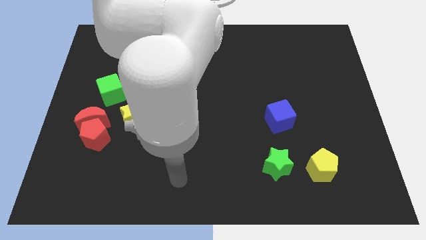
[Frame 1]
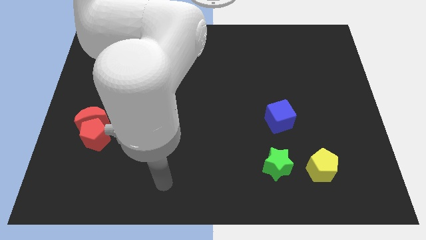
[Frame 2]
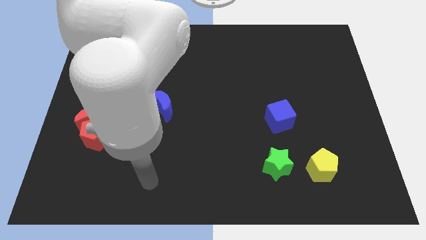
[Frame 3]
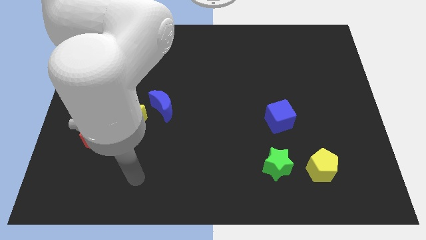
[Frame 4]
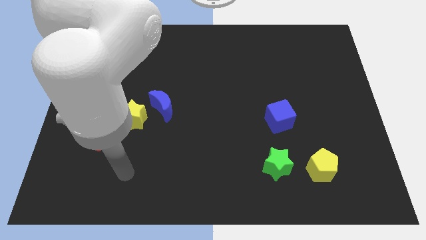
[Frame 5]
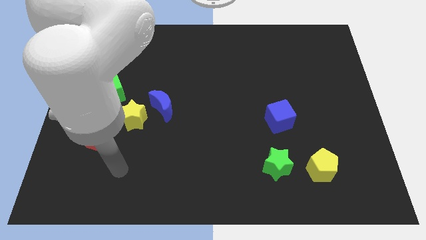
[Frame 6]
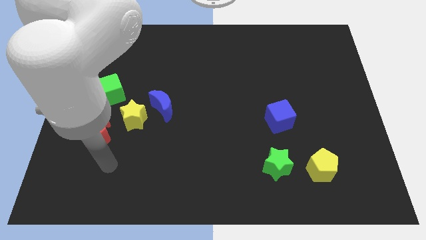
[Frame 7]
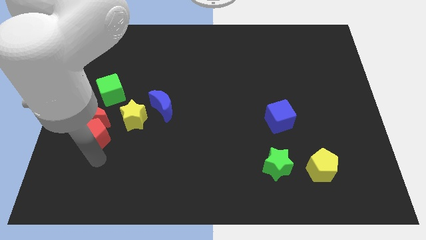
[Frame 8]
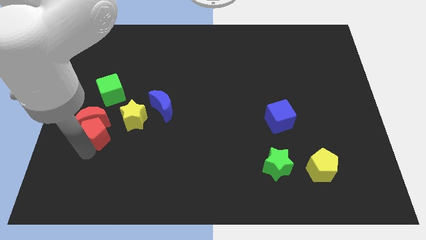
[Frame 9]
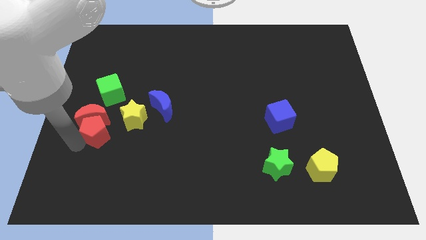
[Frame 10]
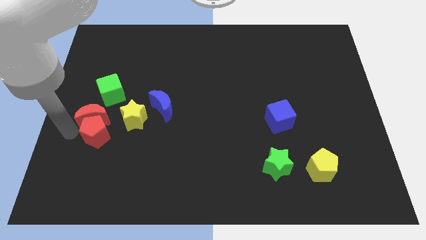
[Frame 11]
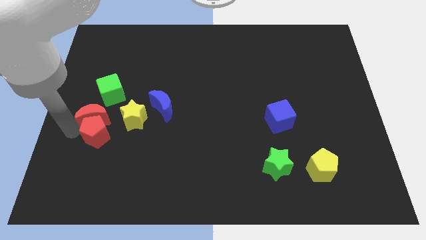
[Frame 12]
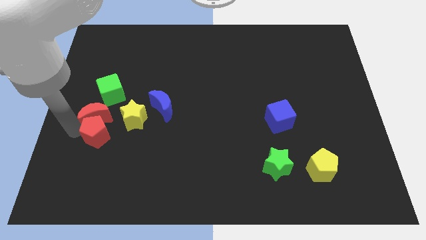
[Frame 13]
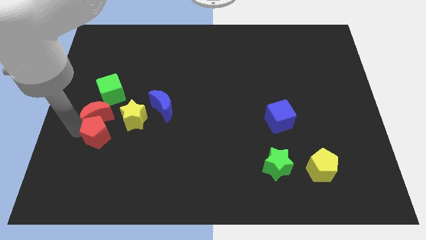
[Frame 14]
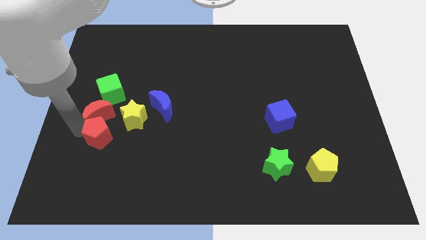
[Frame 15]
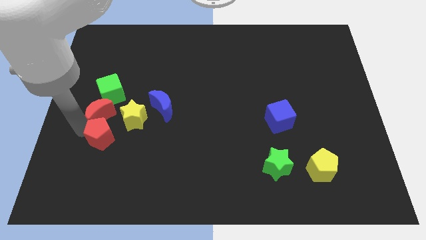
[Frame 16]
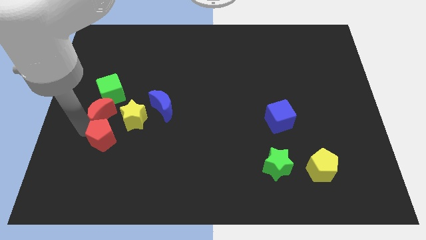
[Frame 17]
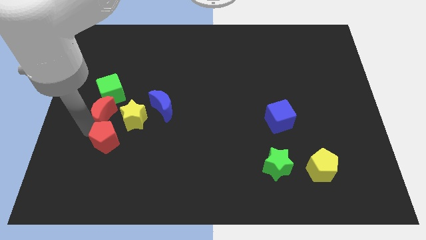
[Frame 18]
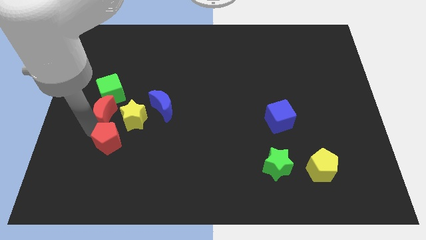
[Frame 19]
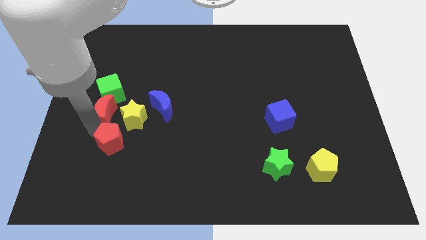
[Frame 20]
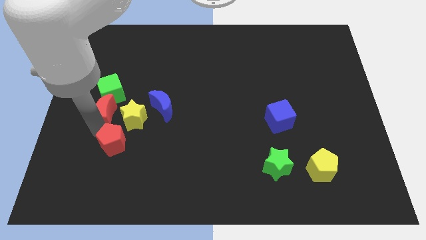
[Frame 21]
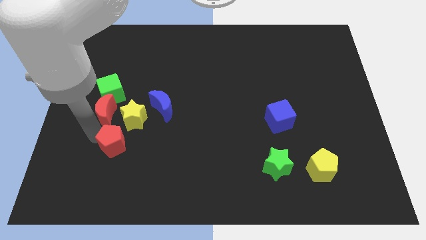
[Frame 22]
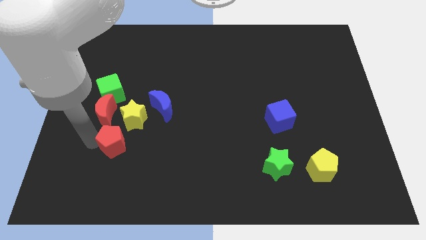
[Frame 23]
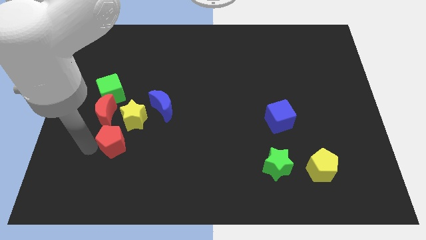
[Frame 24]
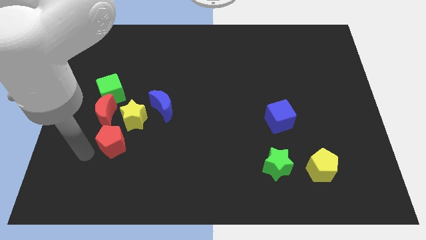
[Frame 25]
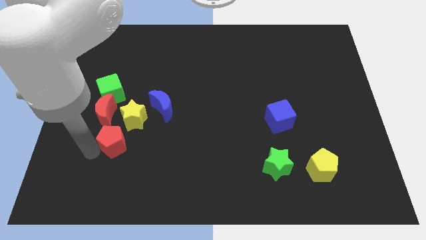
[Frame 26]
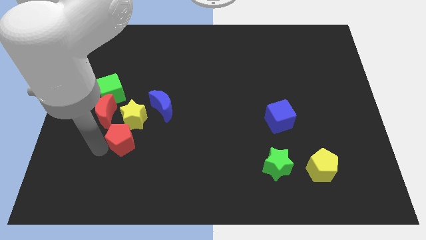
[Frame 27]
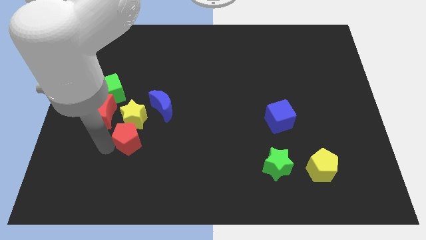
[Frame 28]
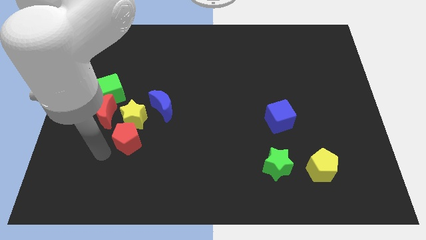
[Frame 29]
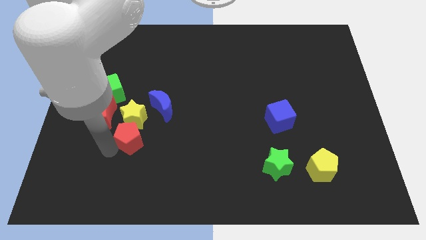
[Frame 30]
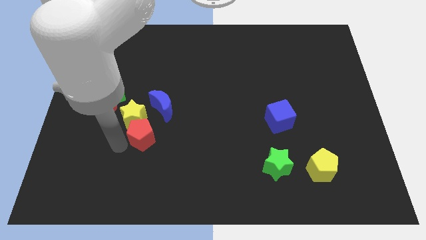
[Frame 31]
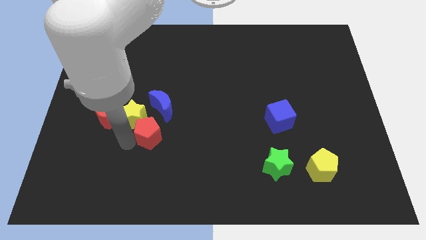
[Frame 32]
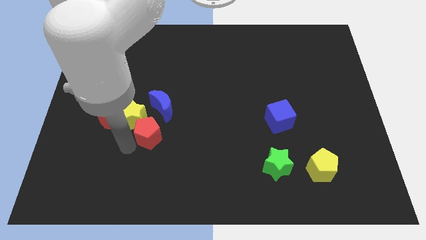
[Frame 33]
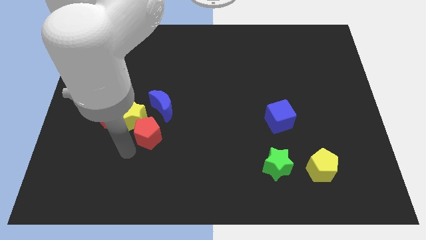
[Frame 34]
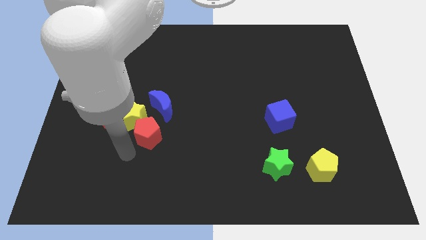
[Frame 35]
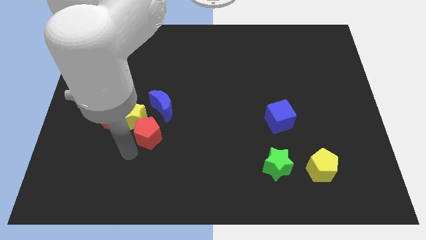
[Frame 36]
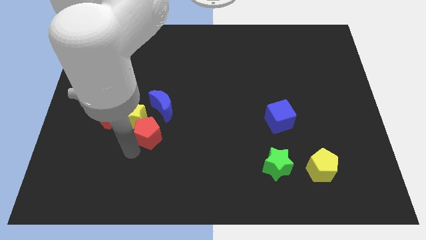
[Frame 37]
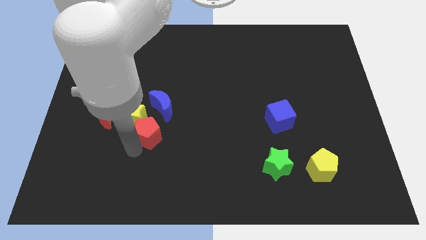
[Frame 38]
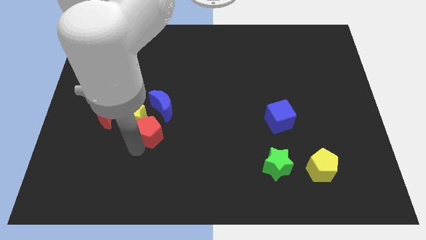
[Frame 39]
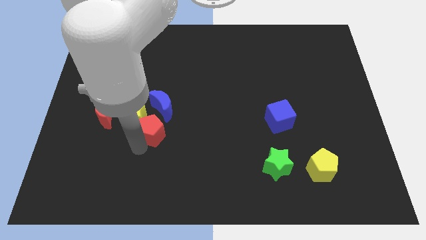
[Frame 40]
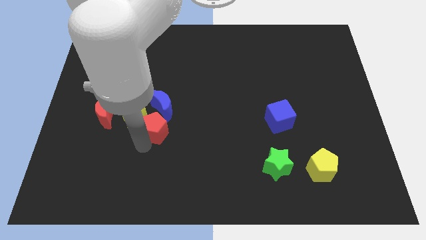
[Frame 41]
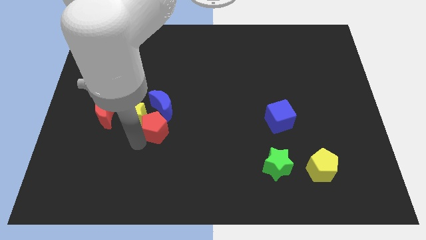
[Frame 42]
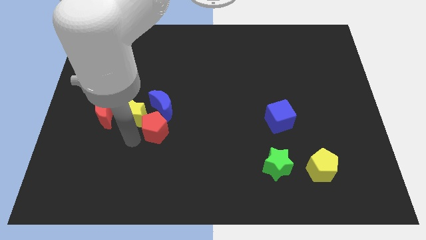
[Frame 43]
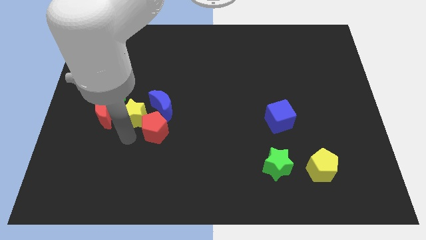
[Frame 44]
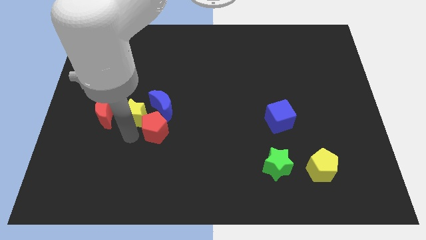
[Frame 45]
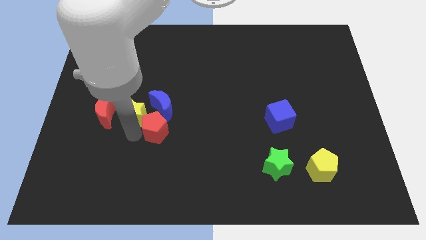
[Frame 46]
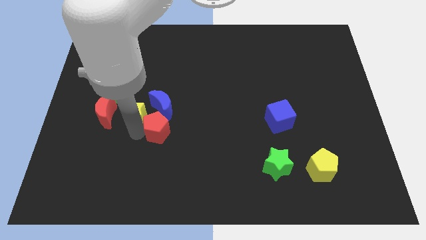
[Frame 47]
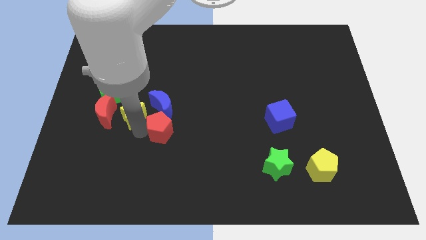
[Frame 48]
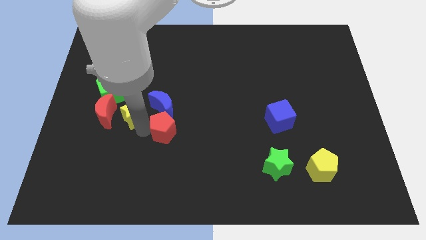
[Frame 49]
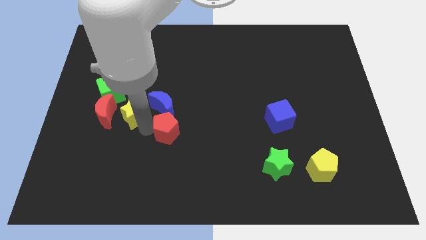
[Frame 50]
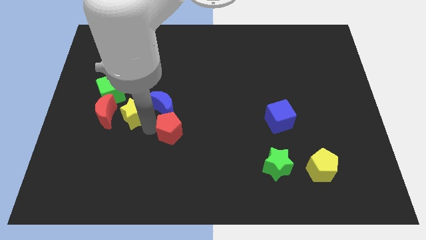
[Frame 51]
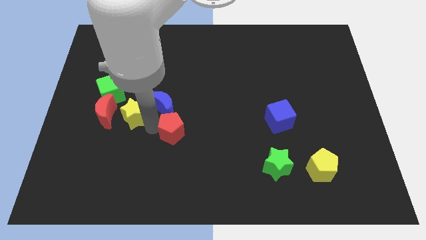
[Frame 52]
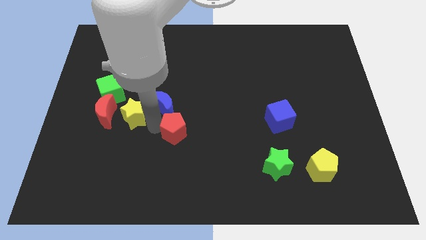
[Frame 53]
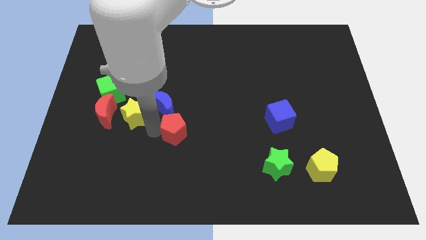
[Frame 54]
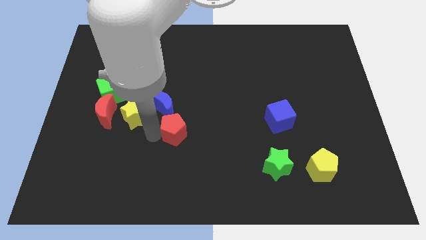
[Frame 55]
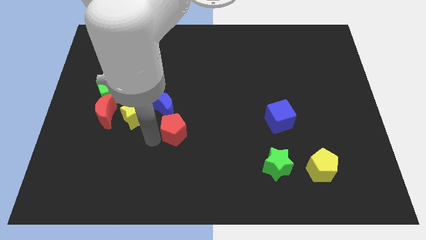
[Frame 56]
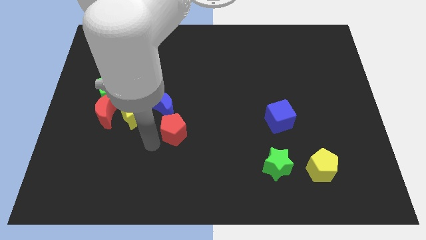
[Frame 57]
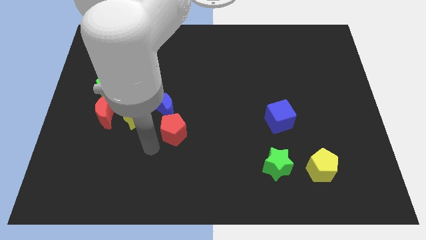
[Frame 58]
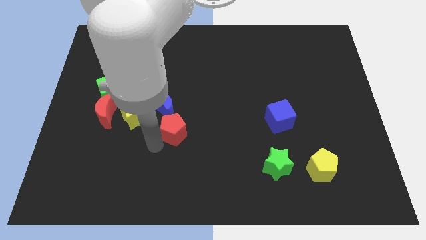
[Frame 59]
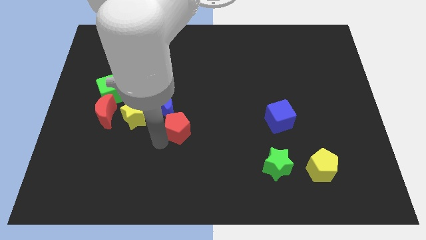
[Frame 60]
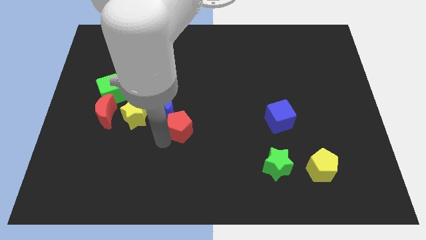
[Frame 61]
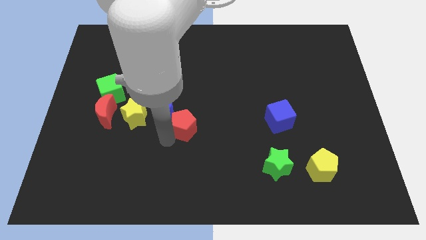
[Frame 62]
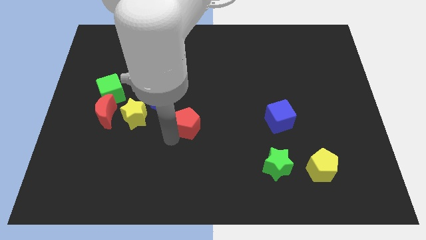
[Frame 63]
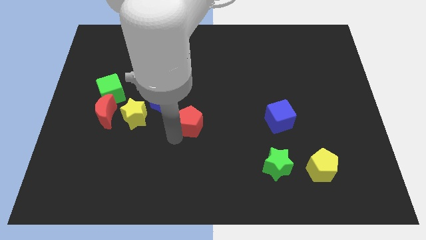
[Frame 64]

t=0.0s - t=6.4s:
put the red pentagon right of the blue moon
